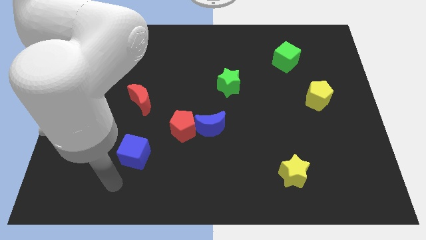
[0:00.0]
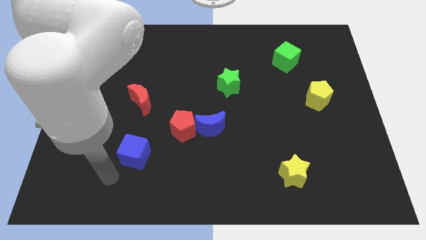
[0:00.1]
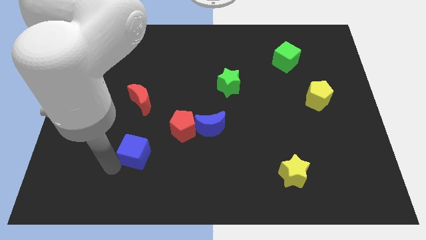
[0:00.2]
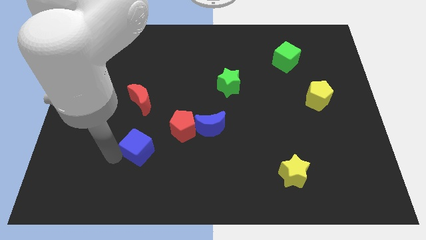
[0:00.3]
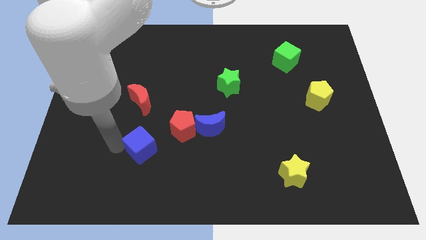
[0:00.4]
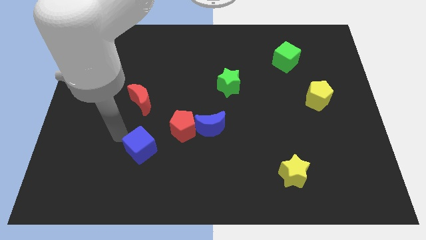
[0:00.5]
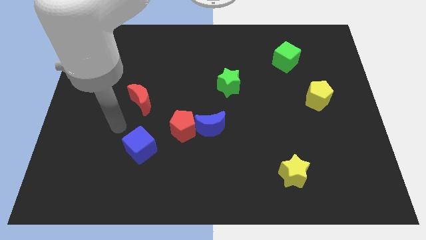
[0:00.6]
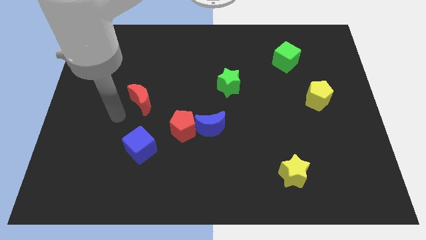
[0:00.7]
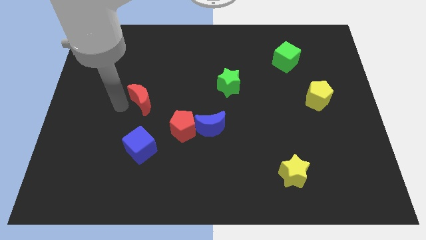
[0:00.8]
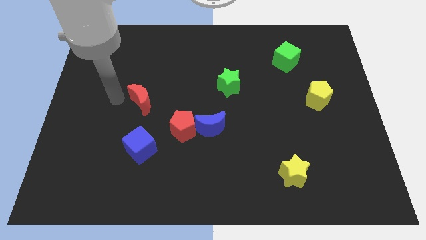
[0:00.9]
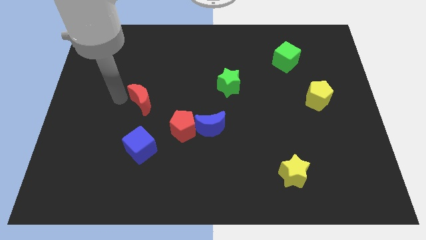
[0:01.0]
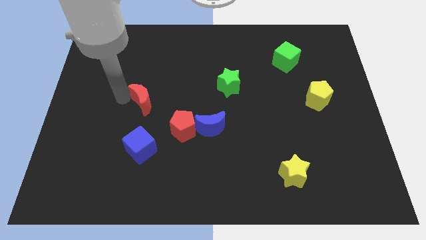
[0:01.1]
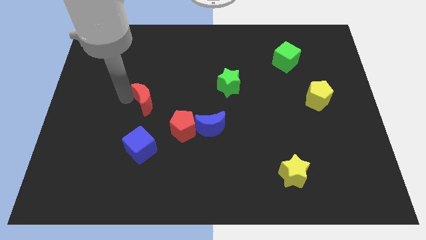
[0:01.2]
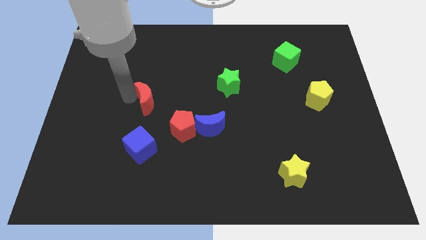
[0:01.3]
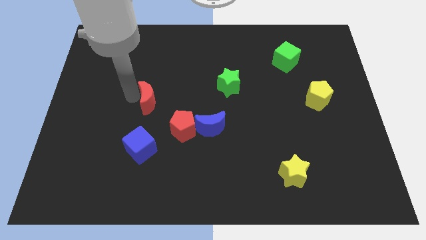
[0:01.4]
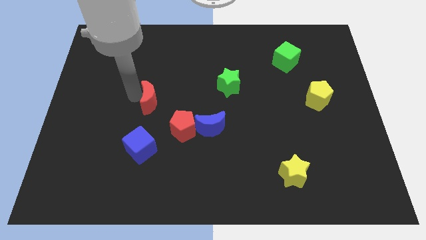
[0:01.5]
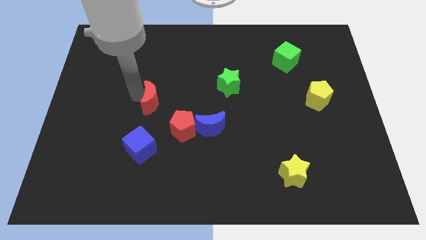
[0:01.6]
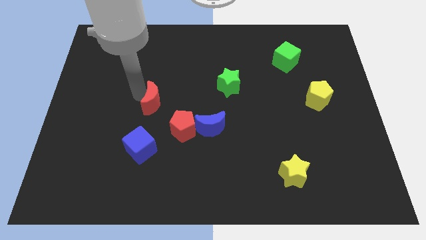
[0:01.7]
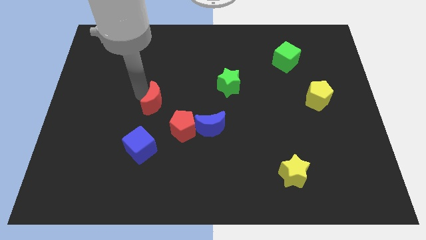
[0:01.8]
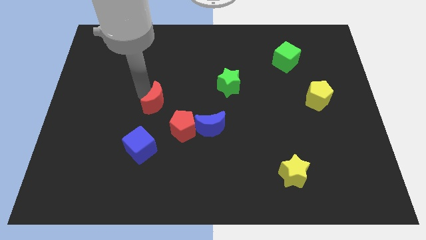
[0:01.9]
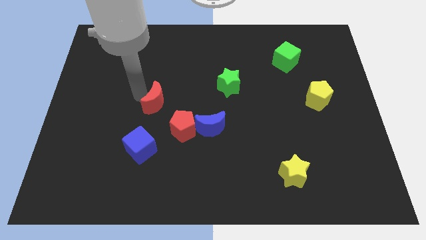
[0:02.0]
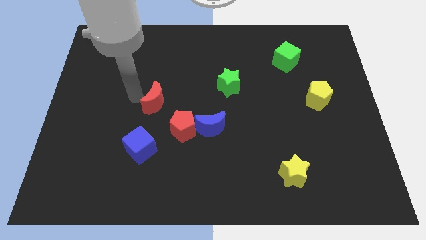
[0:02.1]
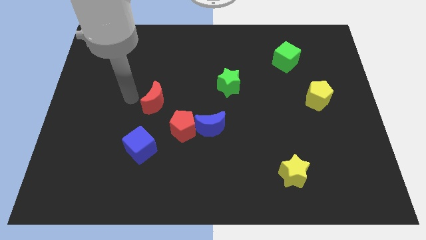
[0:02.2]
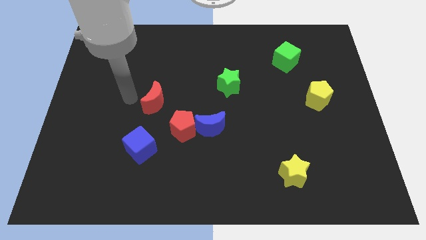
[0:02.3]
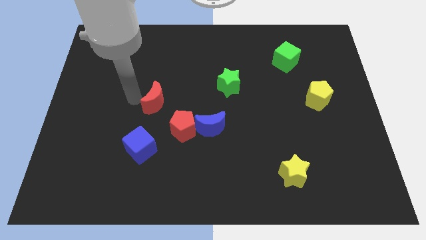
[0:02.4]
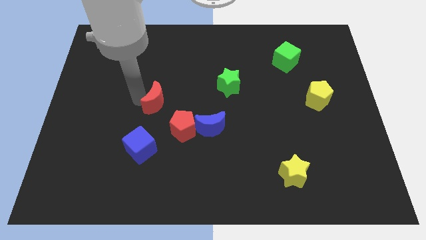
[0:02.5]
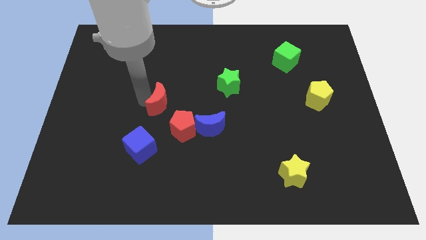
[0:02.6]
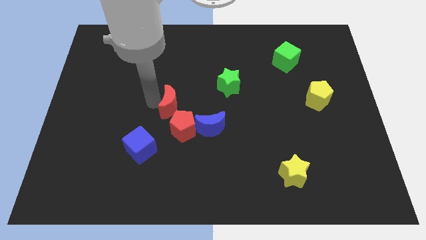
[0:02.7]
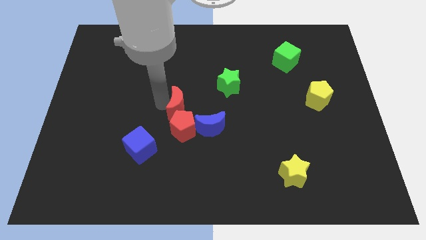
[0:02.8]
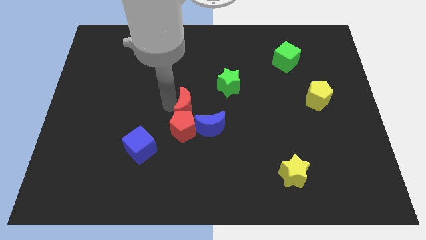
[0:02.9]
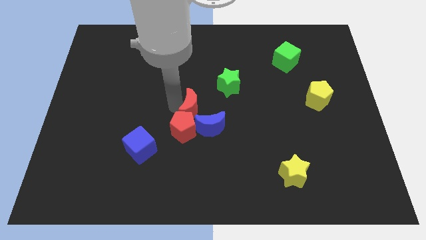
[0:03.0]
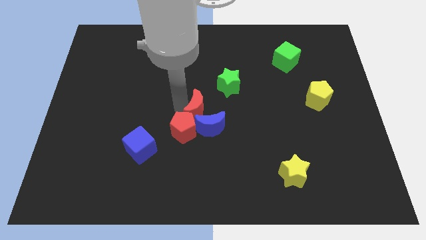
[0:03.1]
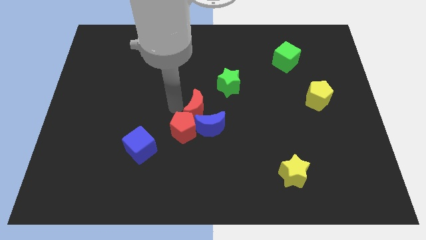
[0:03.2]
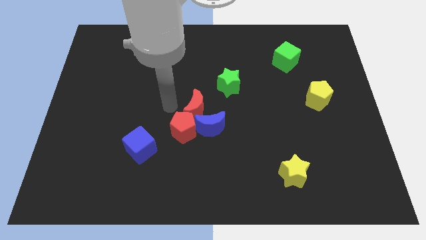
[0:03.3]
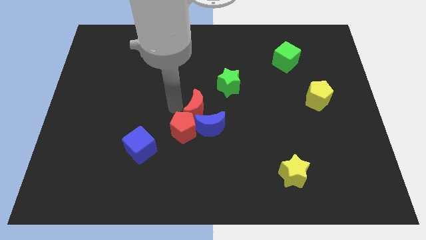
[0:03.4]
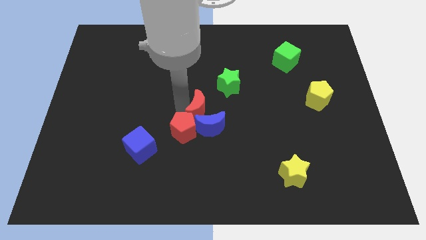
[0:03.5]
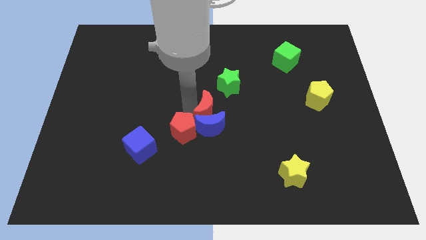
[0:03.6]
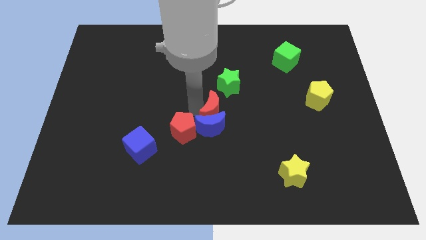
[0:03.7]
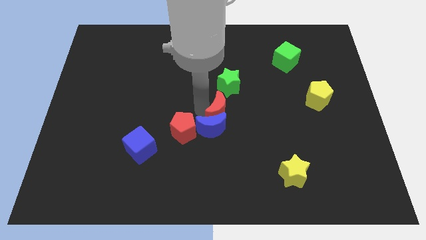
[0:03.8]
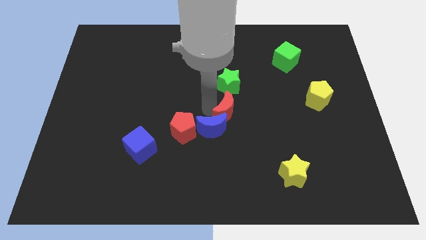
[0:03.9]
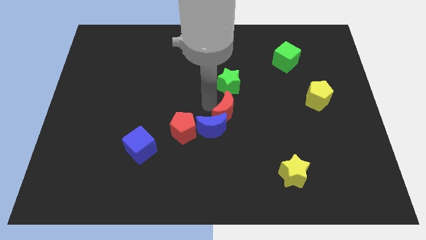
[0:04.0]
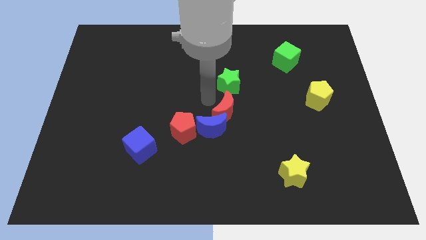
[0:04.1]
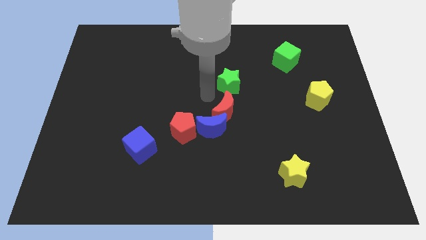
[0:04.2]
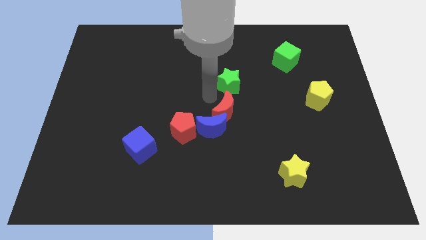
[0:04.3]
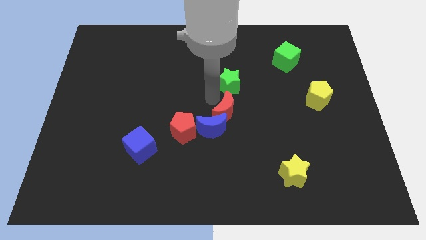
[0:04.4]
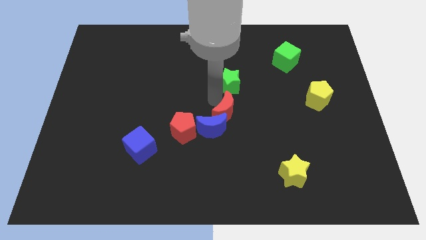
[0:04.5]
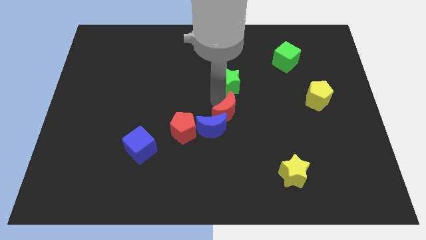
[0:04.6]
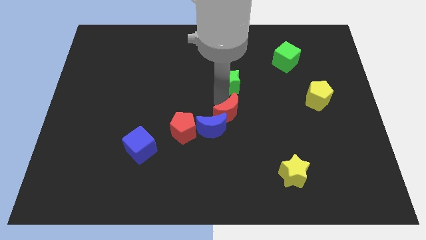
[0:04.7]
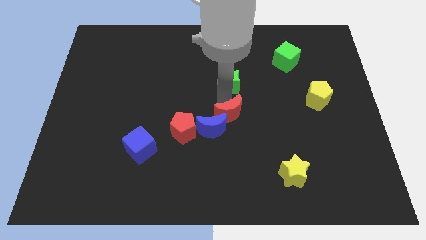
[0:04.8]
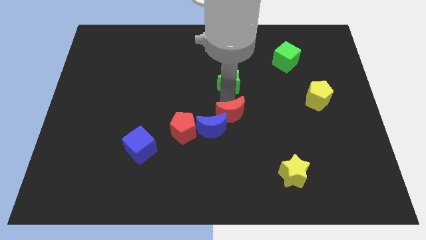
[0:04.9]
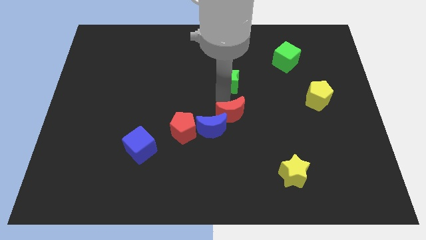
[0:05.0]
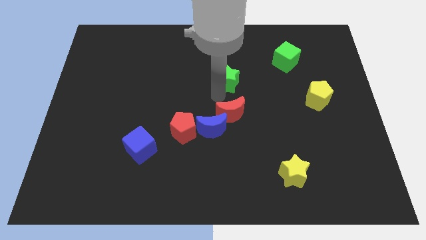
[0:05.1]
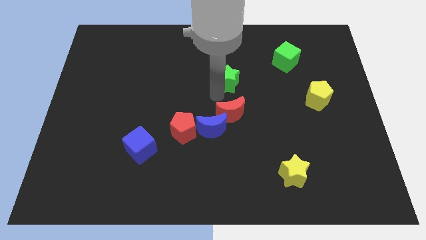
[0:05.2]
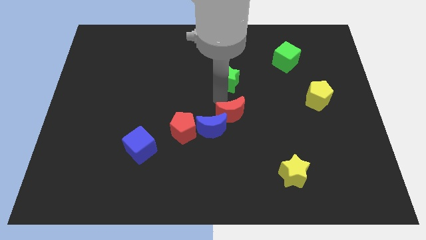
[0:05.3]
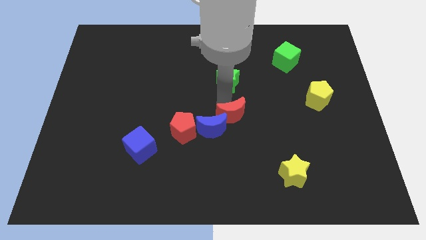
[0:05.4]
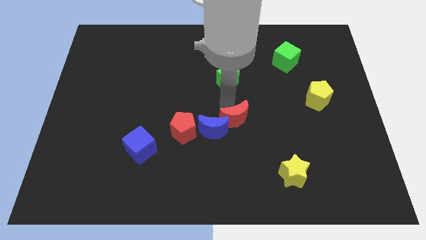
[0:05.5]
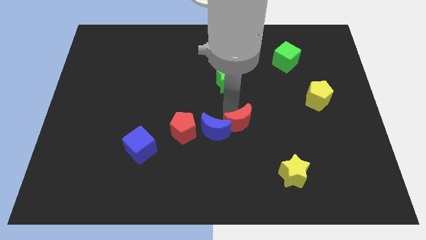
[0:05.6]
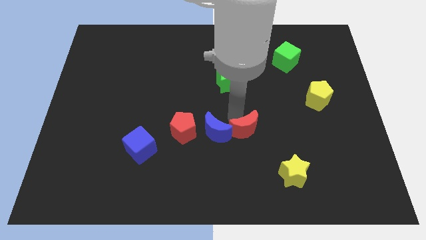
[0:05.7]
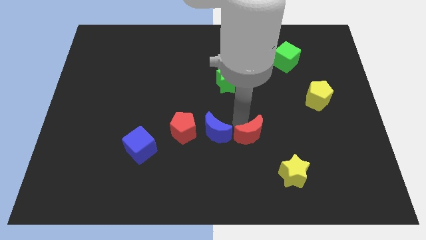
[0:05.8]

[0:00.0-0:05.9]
push the red moon diagonally up and to the left of the yellow star
